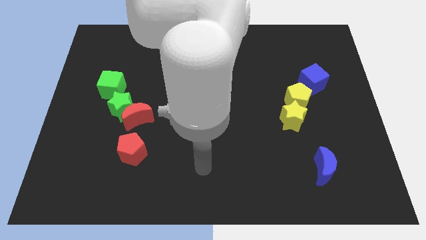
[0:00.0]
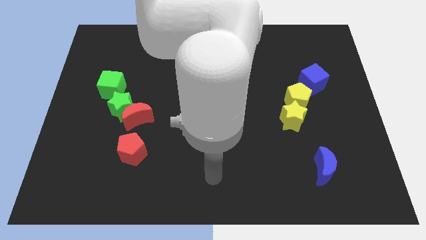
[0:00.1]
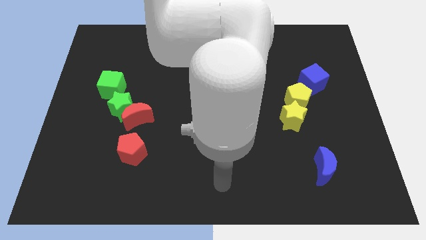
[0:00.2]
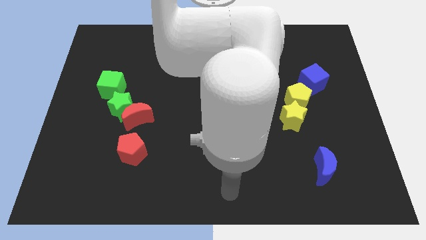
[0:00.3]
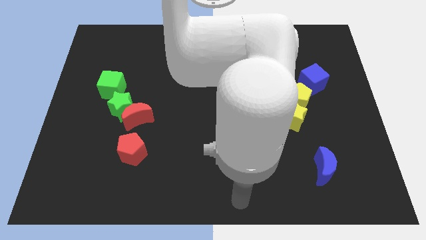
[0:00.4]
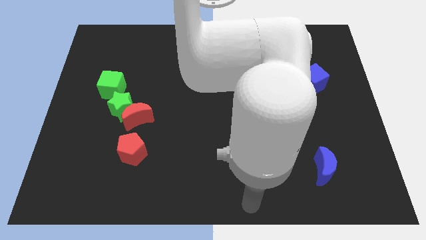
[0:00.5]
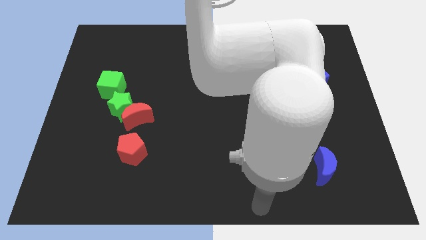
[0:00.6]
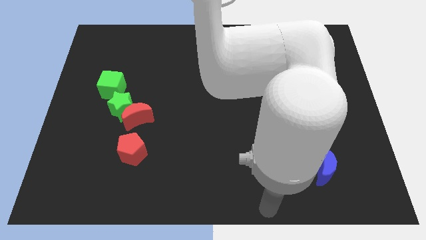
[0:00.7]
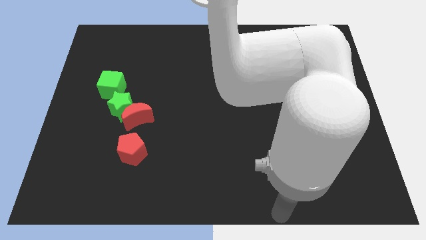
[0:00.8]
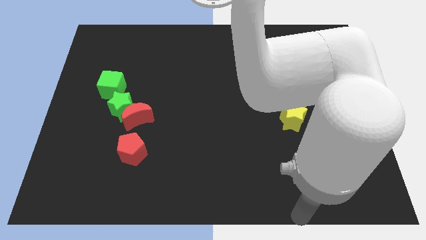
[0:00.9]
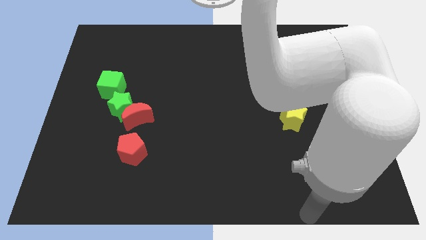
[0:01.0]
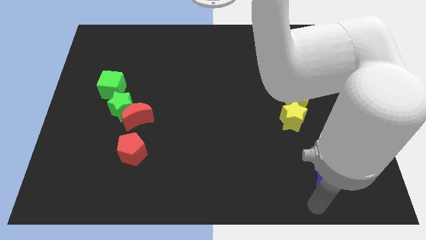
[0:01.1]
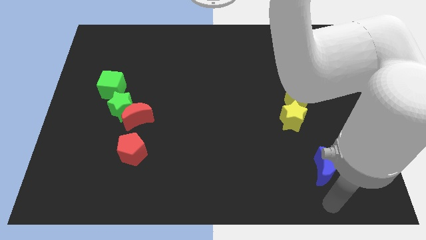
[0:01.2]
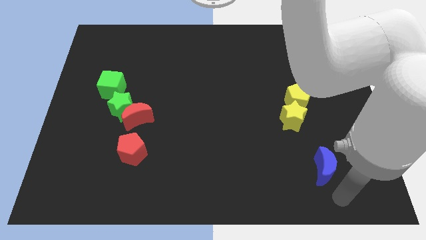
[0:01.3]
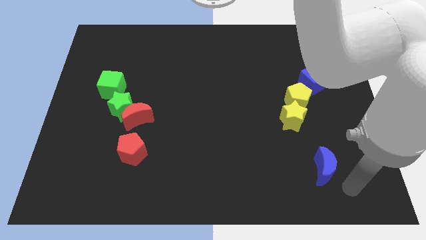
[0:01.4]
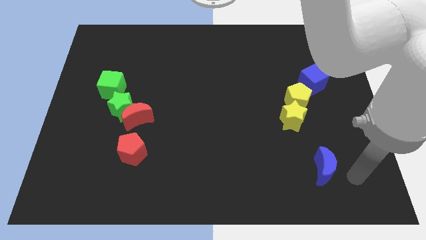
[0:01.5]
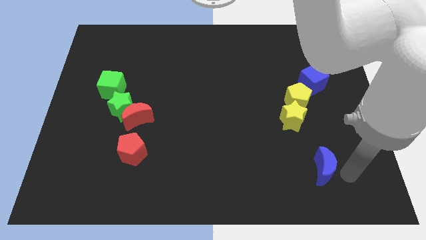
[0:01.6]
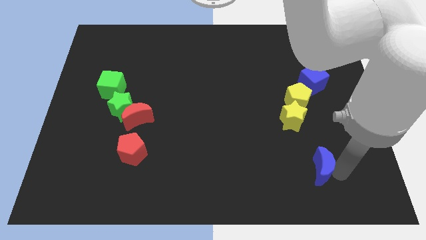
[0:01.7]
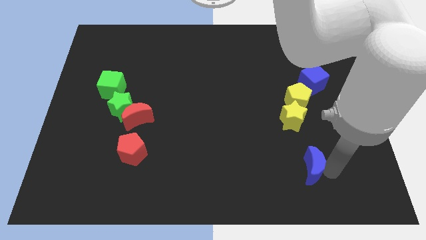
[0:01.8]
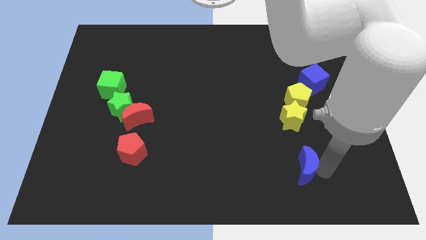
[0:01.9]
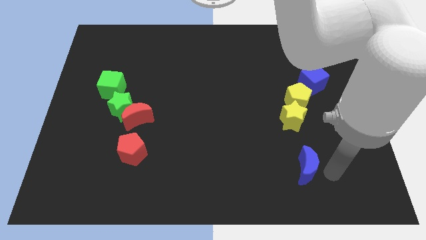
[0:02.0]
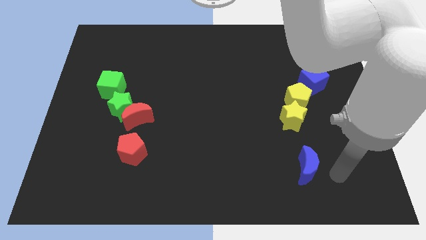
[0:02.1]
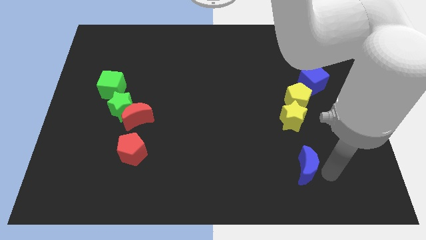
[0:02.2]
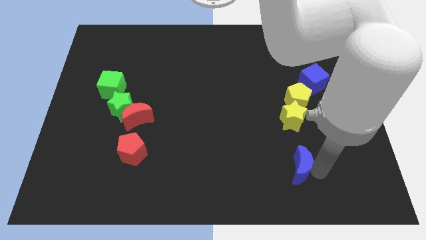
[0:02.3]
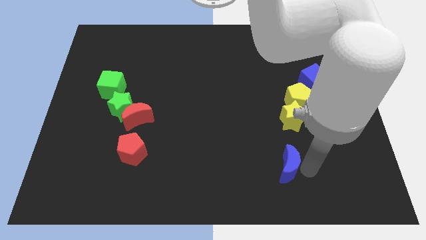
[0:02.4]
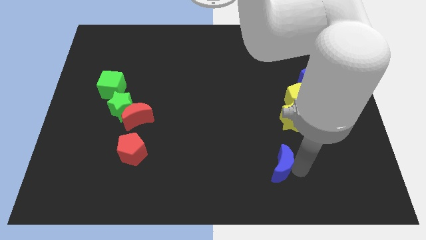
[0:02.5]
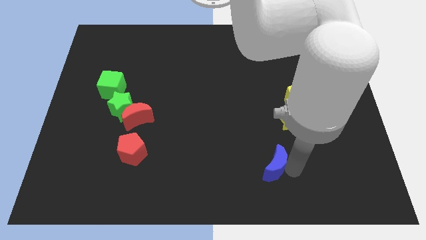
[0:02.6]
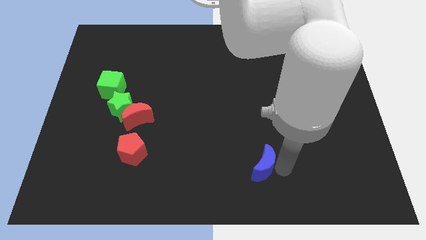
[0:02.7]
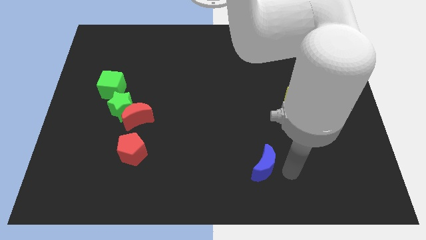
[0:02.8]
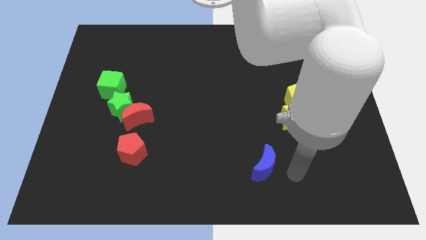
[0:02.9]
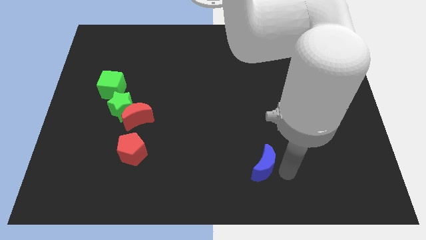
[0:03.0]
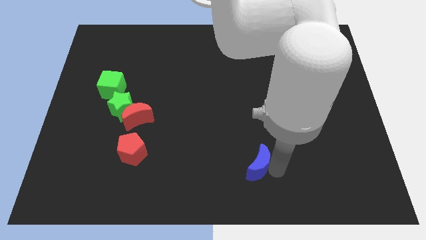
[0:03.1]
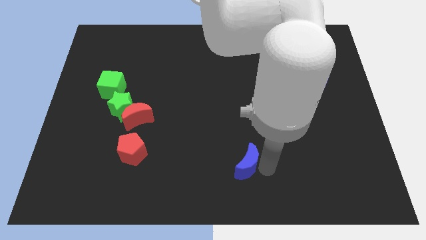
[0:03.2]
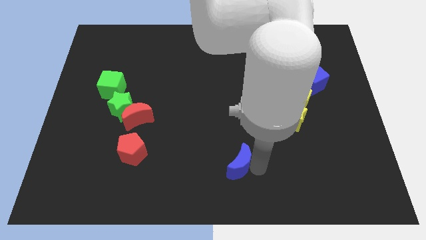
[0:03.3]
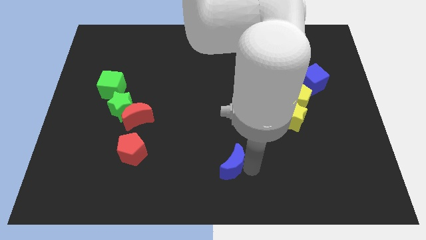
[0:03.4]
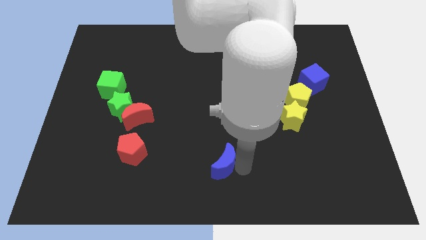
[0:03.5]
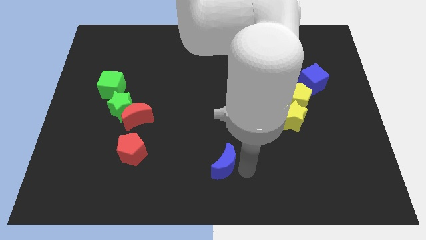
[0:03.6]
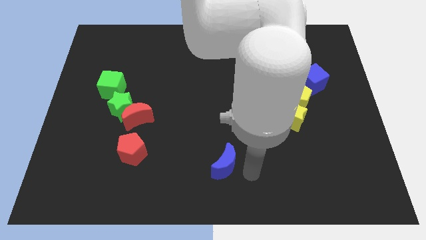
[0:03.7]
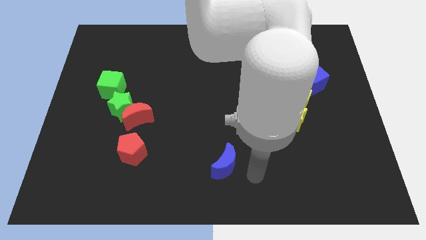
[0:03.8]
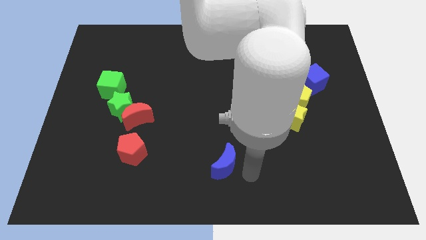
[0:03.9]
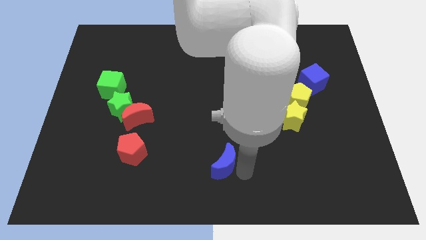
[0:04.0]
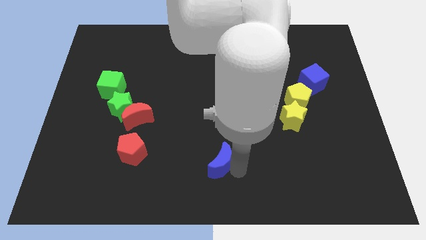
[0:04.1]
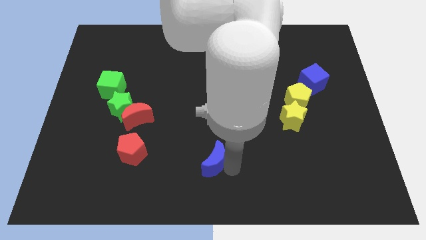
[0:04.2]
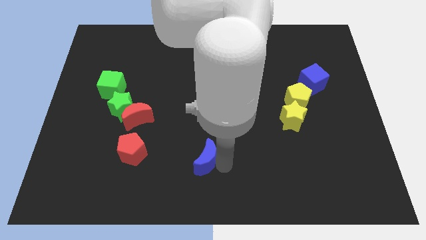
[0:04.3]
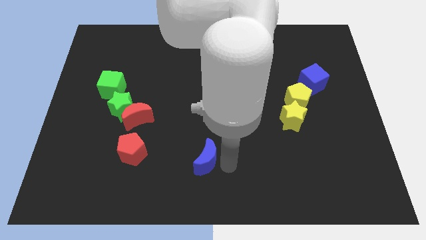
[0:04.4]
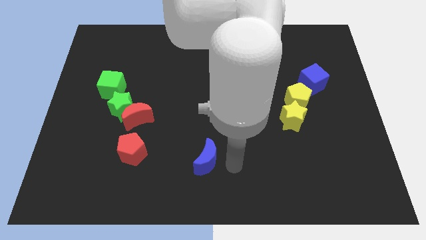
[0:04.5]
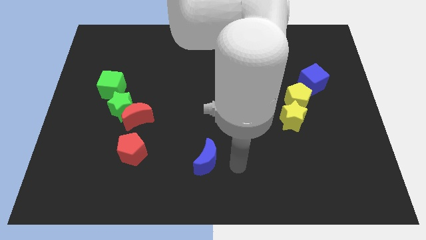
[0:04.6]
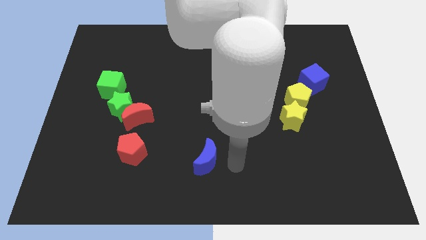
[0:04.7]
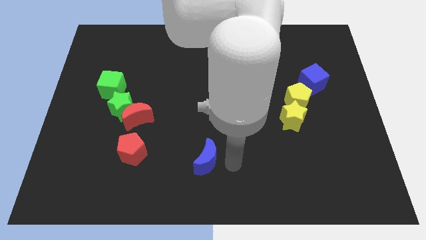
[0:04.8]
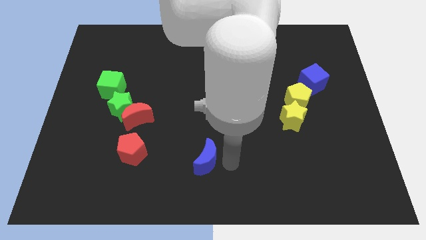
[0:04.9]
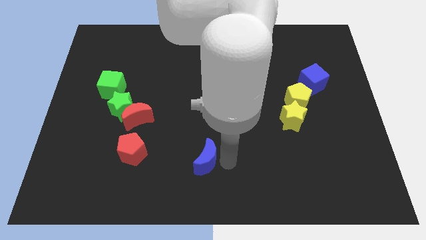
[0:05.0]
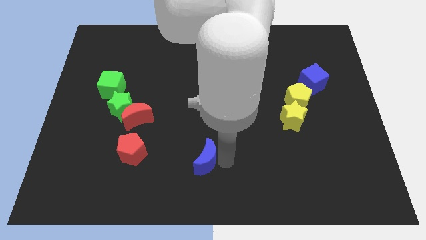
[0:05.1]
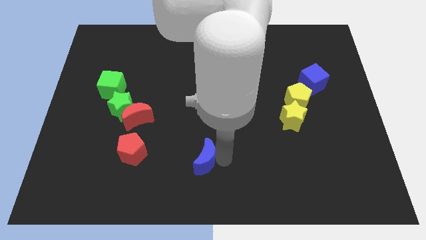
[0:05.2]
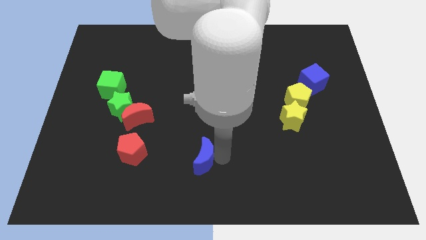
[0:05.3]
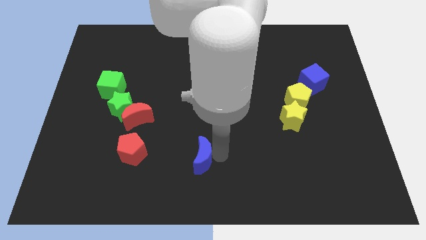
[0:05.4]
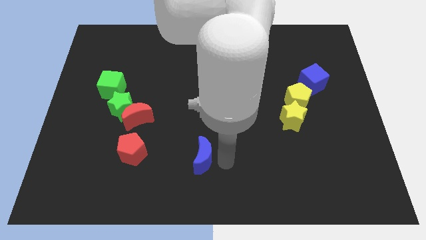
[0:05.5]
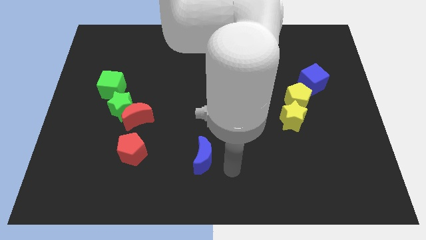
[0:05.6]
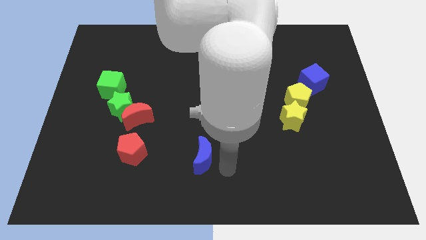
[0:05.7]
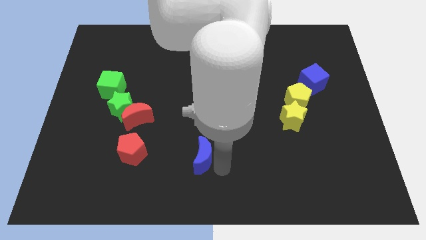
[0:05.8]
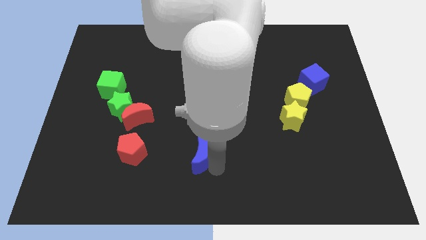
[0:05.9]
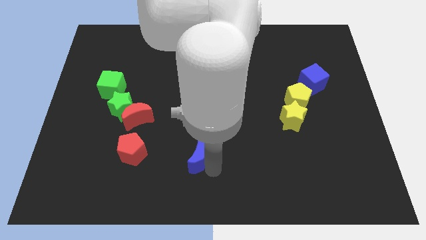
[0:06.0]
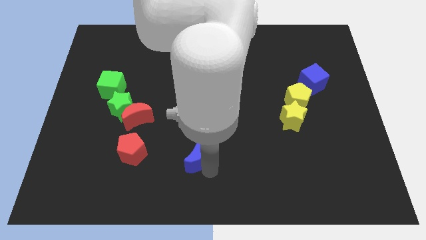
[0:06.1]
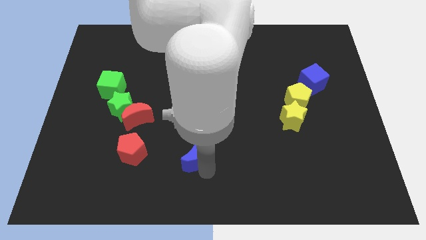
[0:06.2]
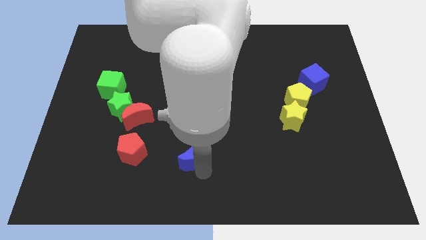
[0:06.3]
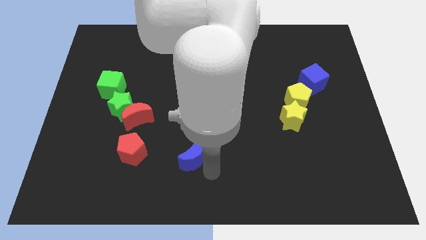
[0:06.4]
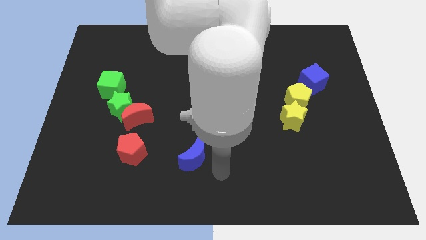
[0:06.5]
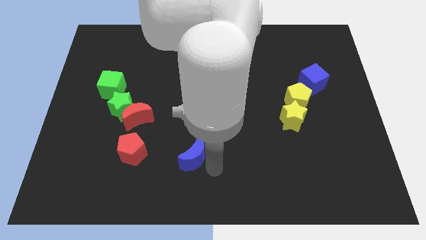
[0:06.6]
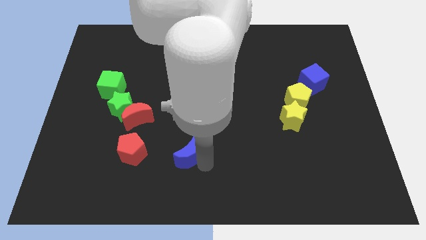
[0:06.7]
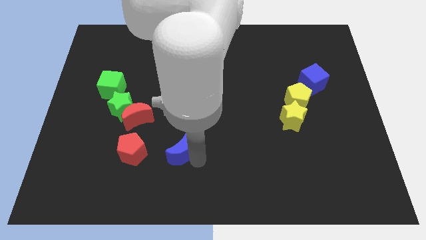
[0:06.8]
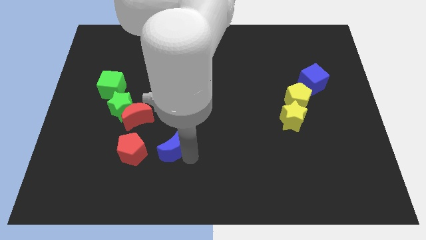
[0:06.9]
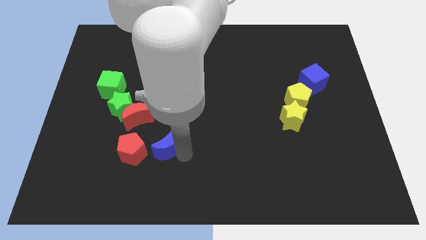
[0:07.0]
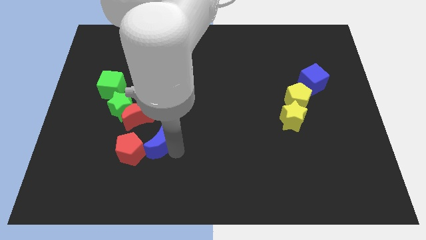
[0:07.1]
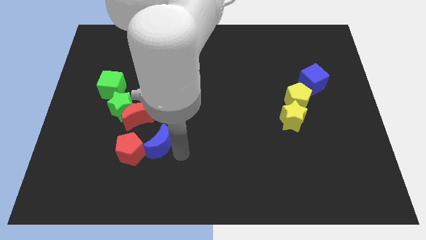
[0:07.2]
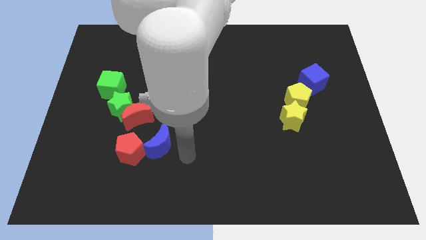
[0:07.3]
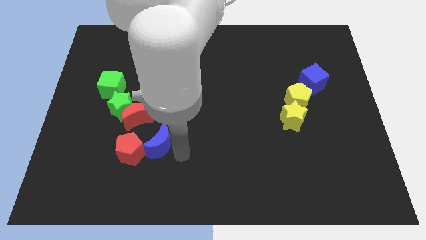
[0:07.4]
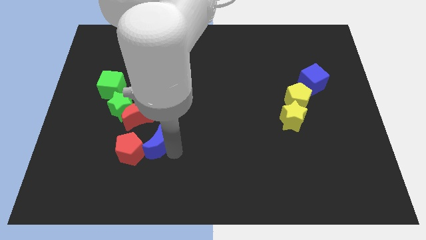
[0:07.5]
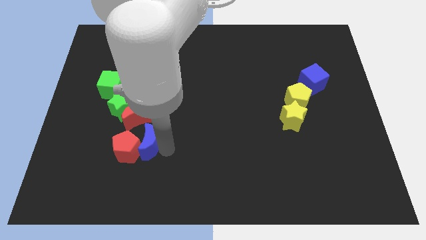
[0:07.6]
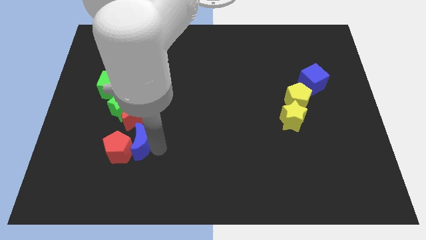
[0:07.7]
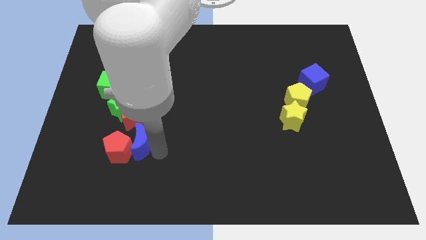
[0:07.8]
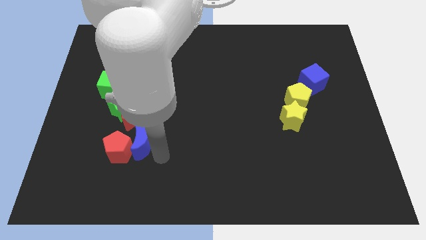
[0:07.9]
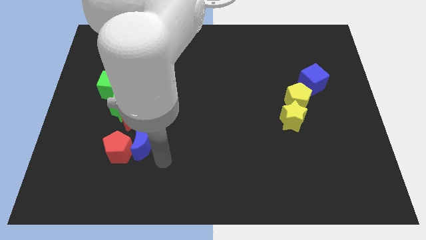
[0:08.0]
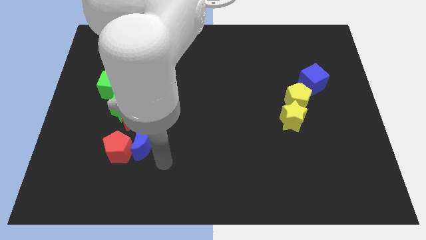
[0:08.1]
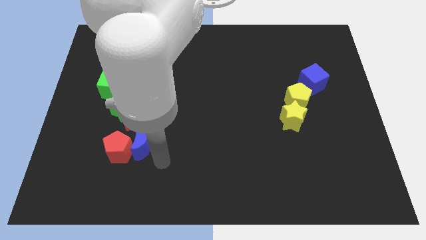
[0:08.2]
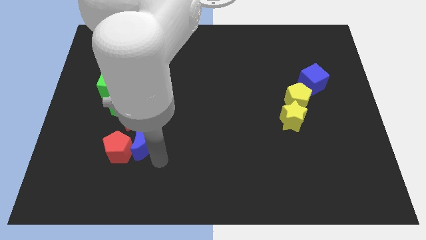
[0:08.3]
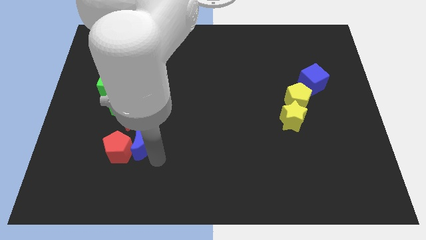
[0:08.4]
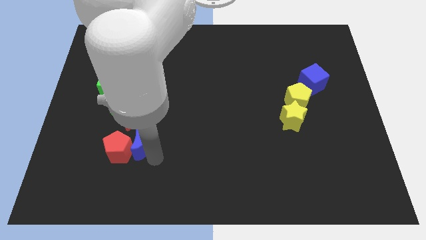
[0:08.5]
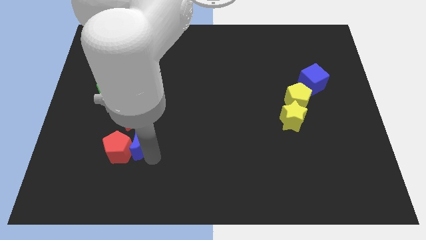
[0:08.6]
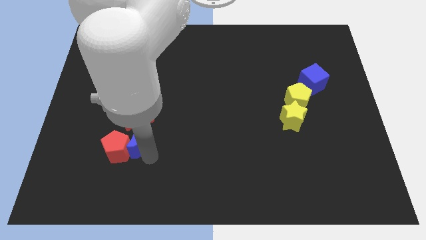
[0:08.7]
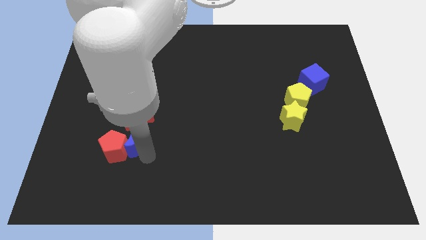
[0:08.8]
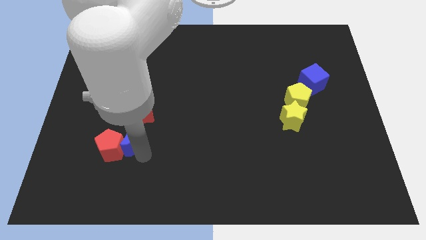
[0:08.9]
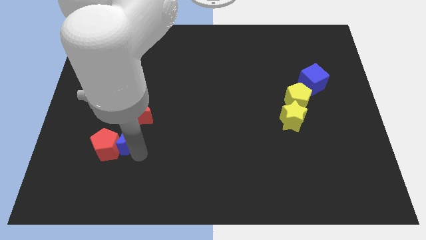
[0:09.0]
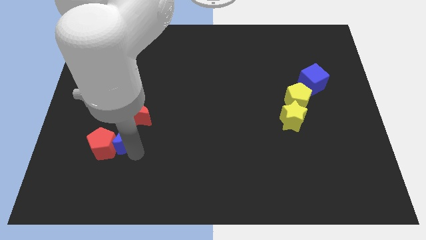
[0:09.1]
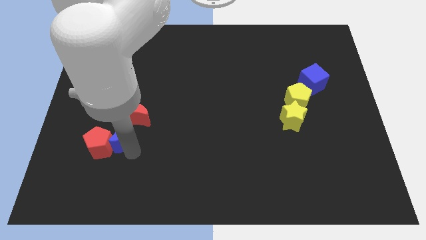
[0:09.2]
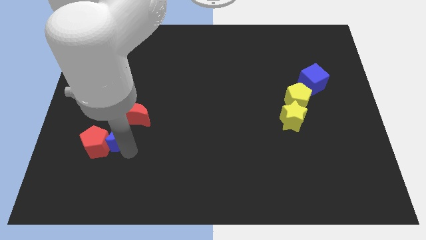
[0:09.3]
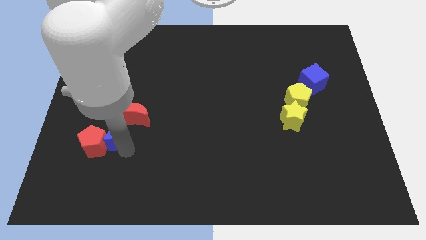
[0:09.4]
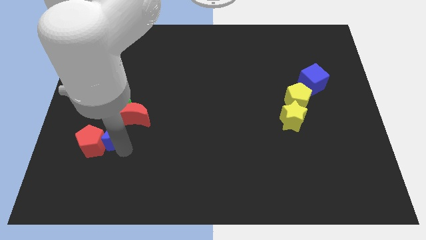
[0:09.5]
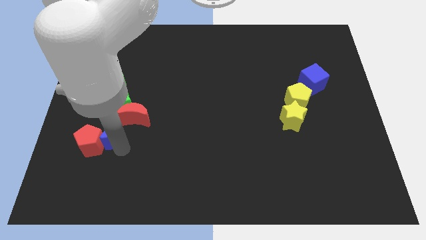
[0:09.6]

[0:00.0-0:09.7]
move the blue moon just left of the red moon
